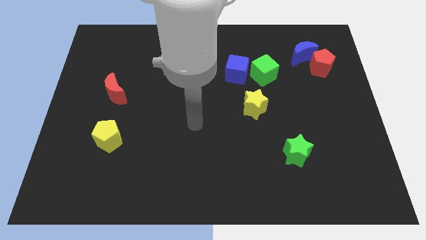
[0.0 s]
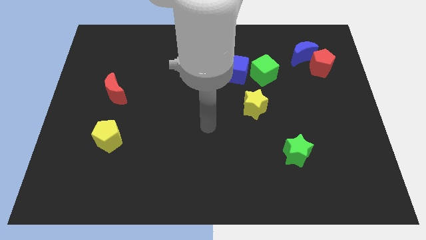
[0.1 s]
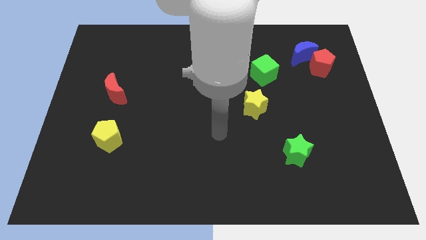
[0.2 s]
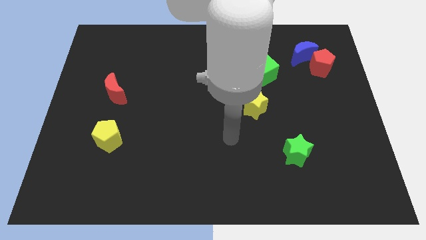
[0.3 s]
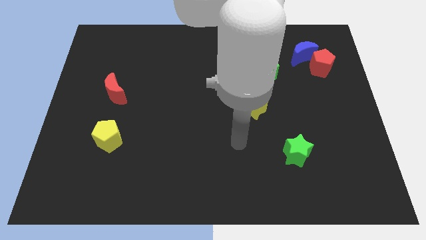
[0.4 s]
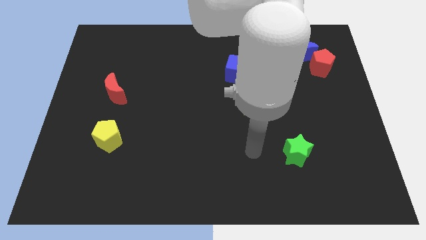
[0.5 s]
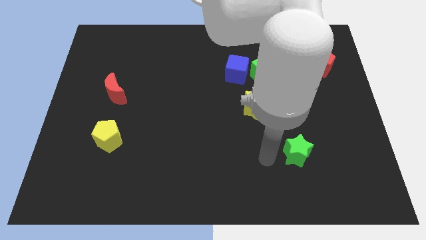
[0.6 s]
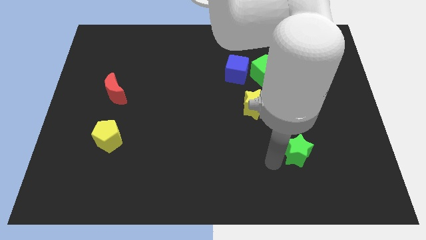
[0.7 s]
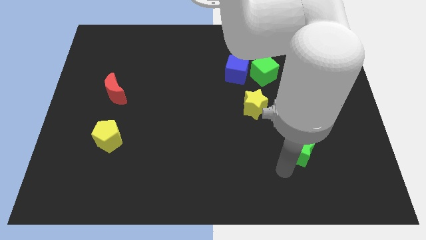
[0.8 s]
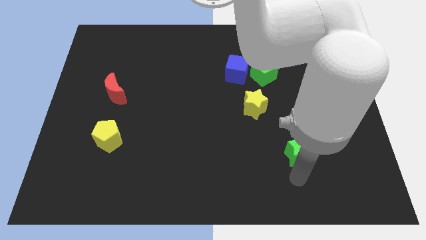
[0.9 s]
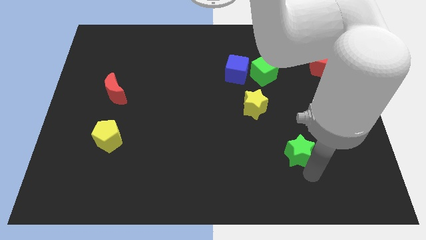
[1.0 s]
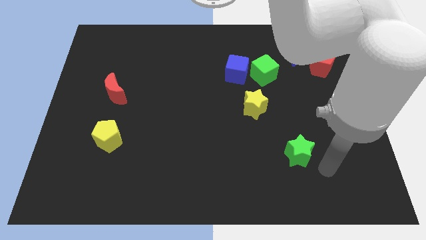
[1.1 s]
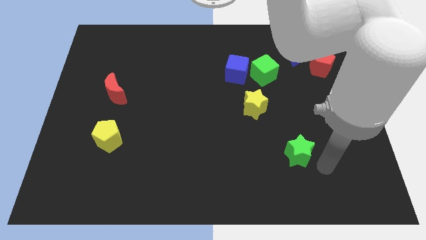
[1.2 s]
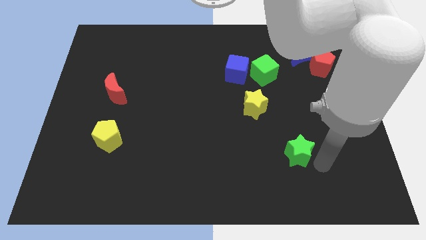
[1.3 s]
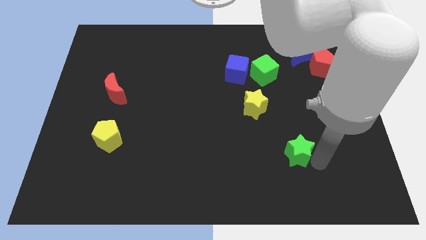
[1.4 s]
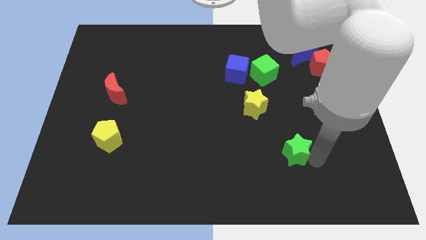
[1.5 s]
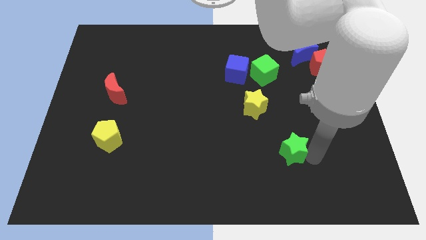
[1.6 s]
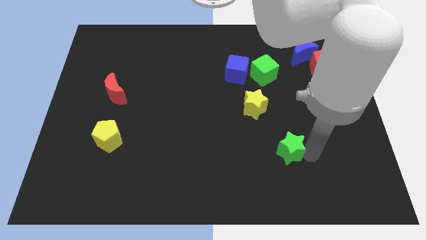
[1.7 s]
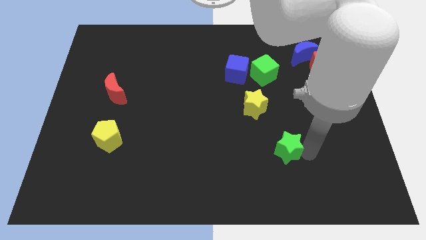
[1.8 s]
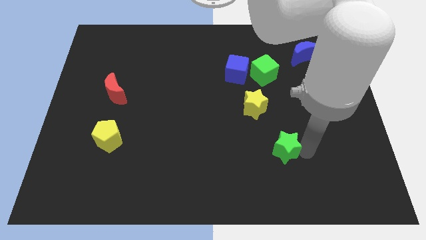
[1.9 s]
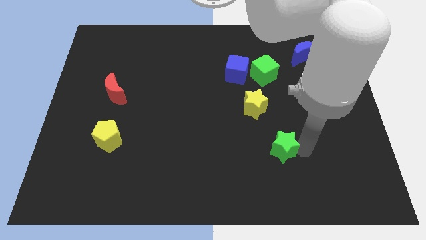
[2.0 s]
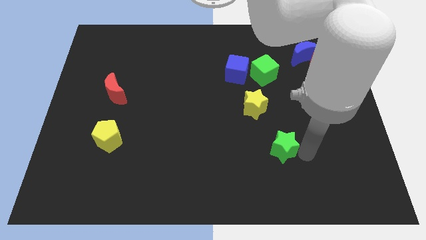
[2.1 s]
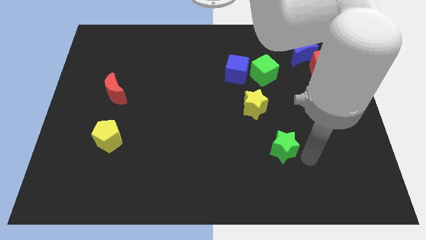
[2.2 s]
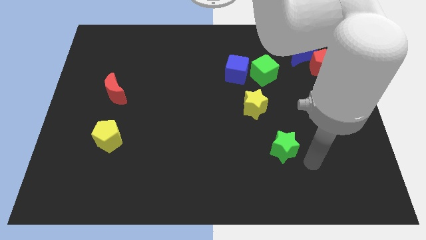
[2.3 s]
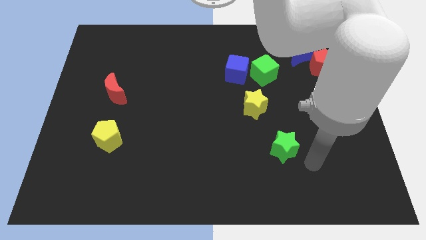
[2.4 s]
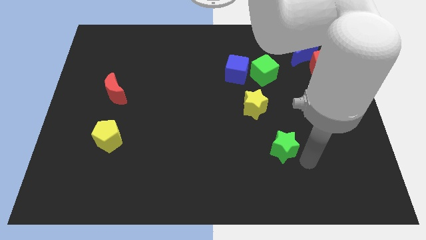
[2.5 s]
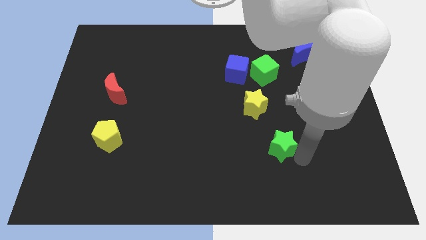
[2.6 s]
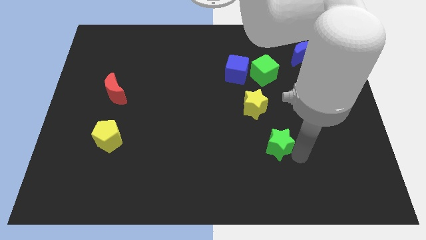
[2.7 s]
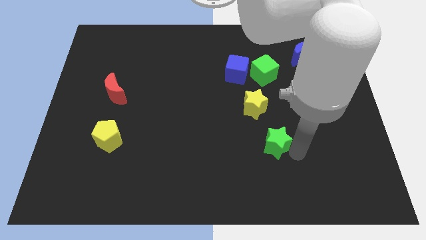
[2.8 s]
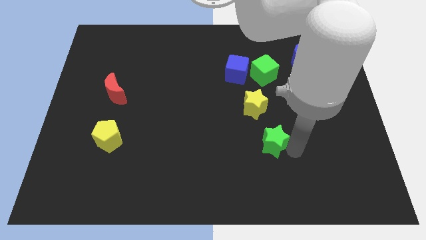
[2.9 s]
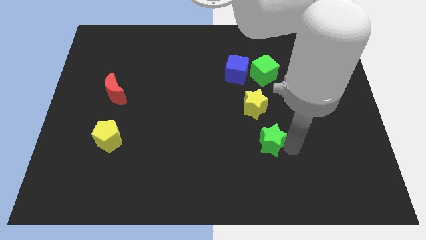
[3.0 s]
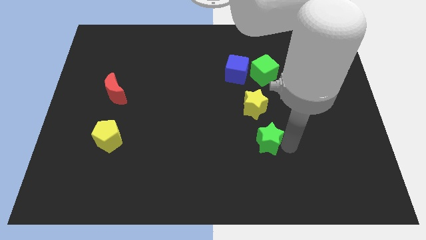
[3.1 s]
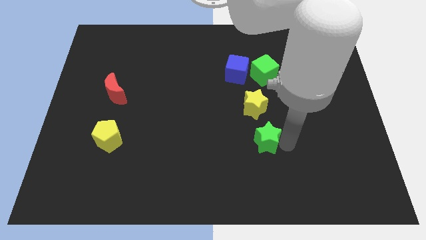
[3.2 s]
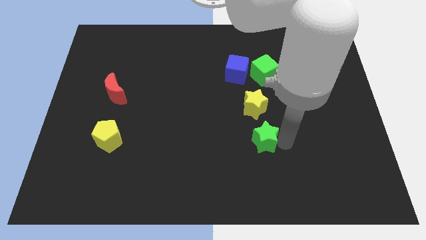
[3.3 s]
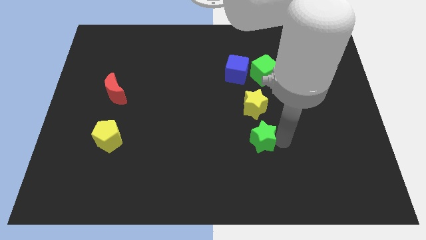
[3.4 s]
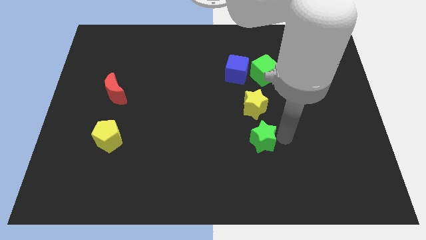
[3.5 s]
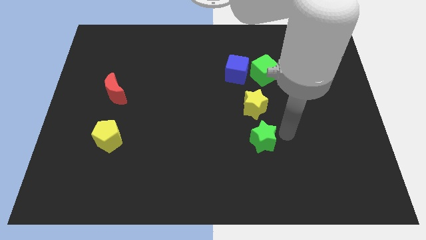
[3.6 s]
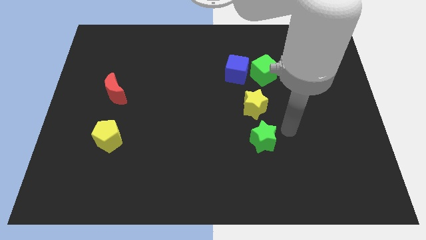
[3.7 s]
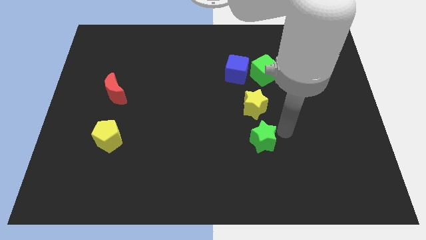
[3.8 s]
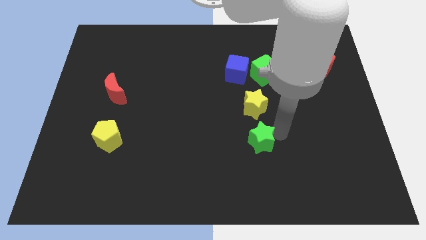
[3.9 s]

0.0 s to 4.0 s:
move the green star left a little

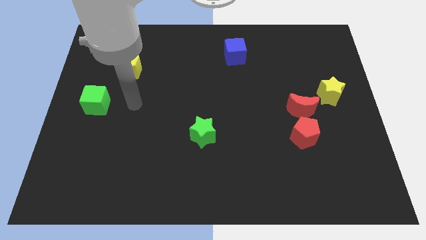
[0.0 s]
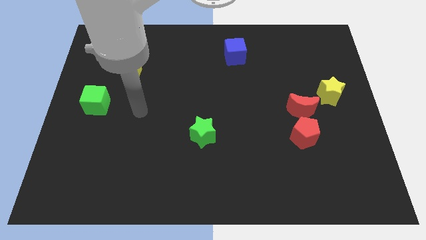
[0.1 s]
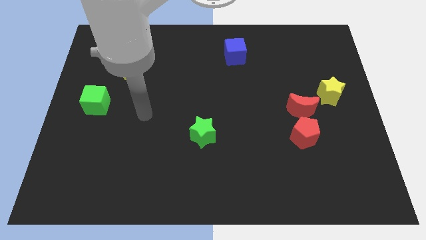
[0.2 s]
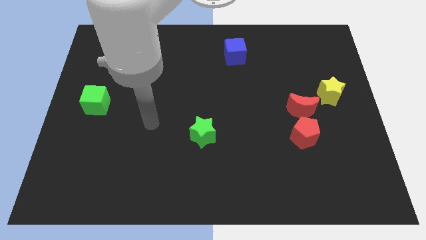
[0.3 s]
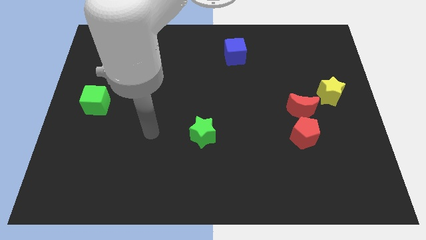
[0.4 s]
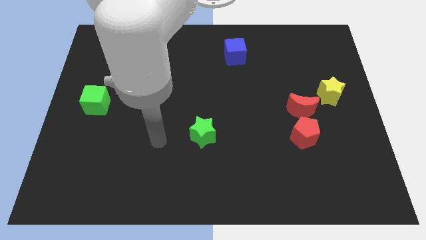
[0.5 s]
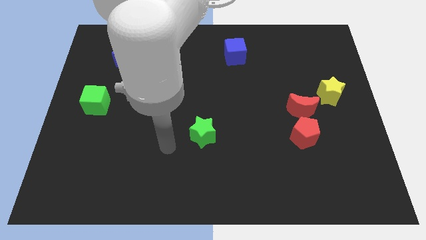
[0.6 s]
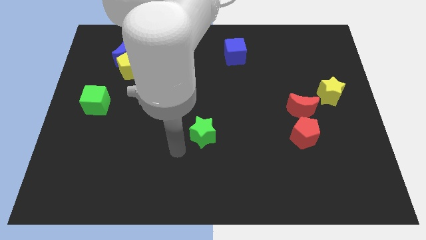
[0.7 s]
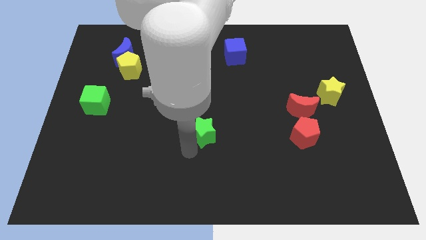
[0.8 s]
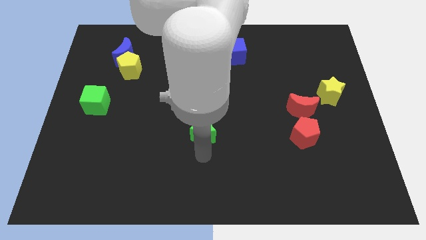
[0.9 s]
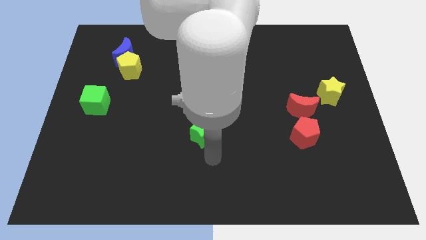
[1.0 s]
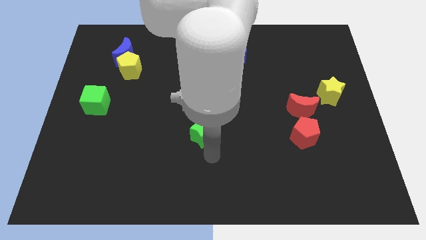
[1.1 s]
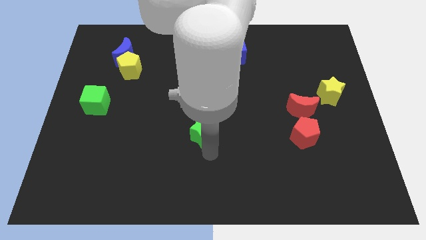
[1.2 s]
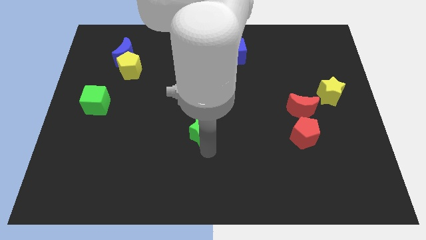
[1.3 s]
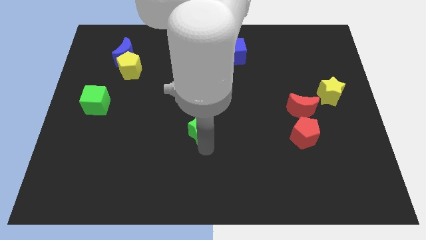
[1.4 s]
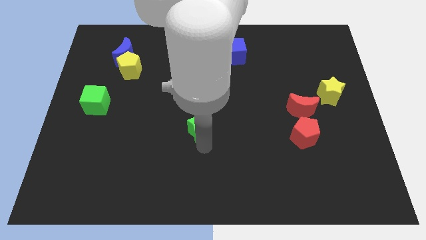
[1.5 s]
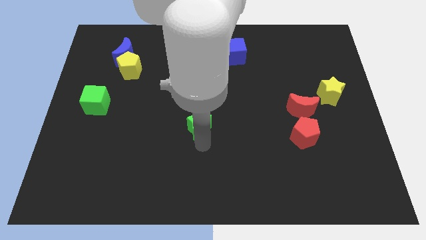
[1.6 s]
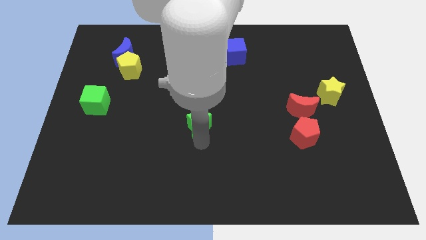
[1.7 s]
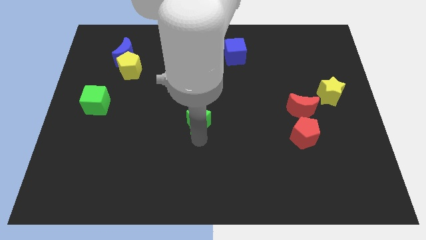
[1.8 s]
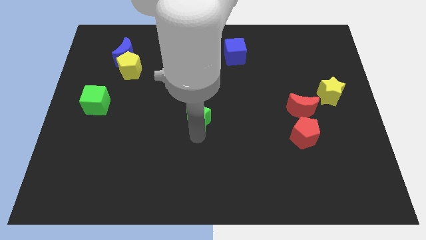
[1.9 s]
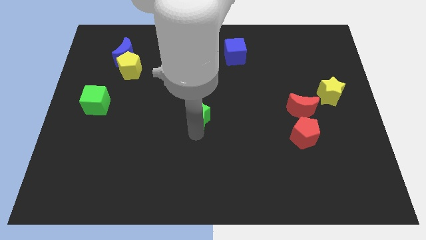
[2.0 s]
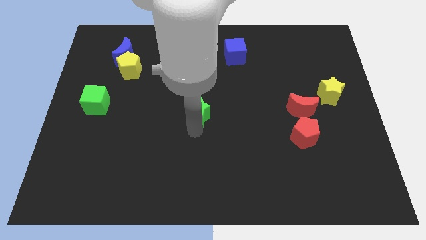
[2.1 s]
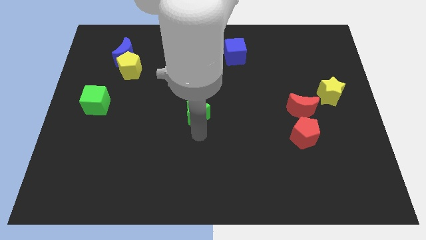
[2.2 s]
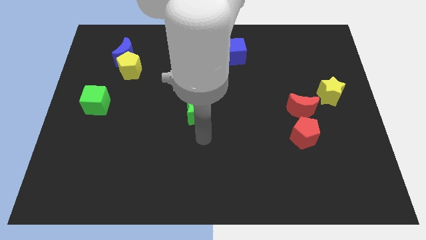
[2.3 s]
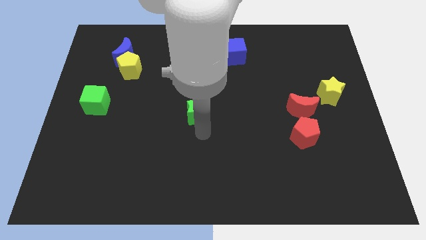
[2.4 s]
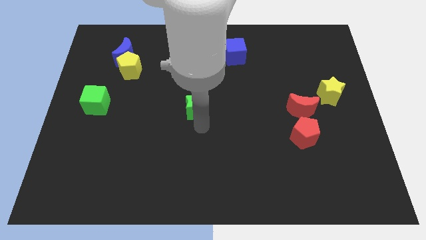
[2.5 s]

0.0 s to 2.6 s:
push the green star upwards a bit

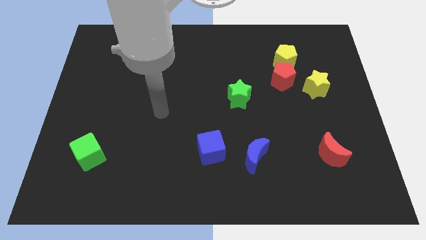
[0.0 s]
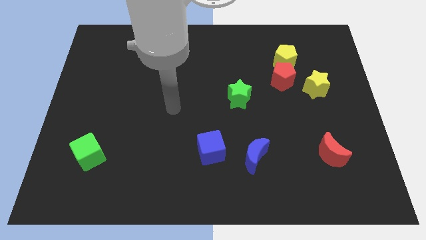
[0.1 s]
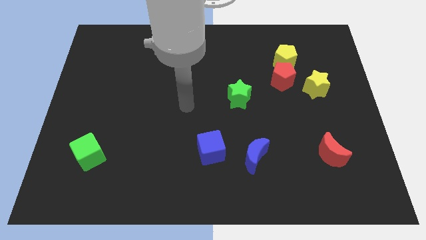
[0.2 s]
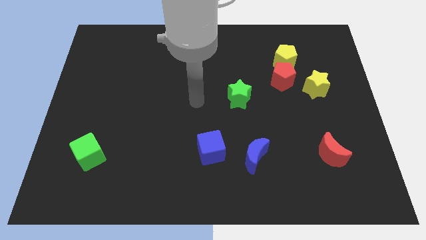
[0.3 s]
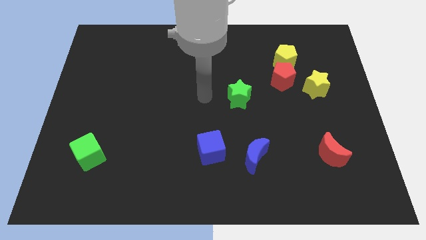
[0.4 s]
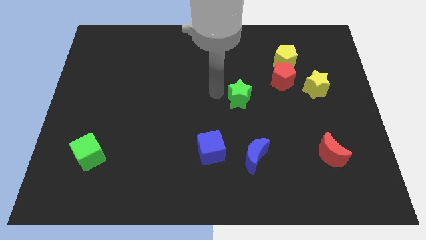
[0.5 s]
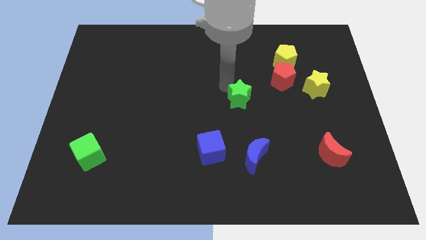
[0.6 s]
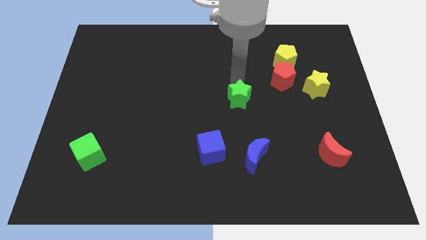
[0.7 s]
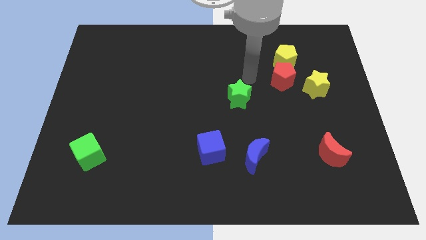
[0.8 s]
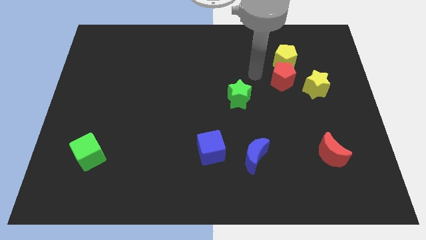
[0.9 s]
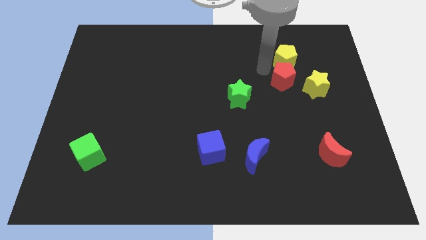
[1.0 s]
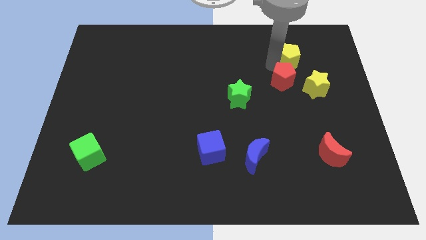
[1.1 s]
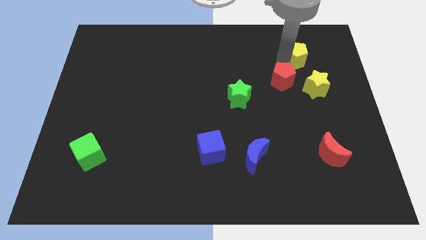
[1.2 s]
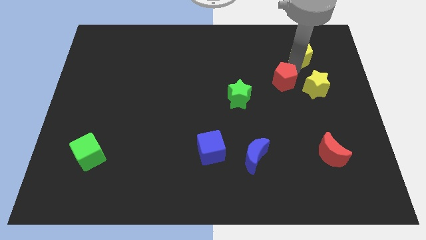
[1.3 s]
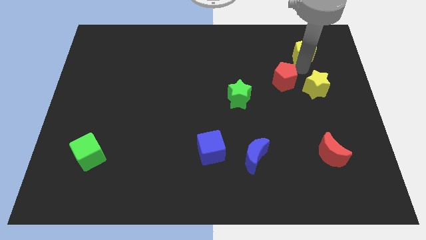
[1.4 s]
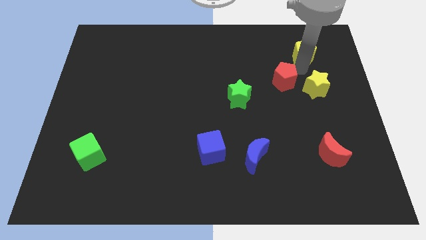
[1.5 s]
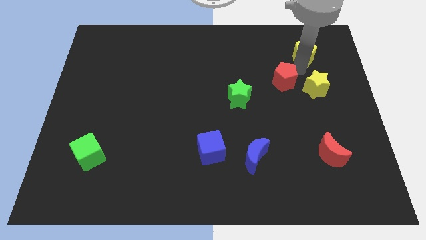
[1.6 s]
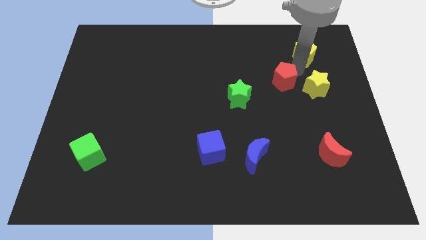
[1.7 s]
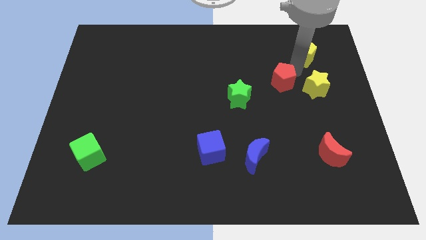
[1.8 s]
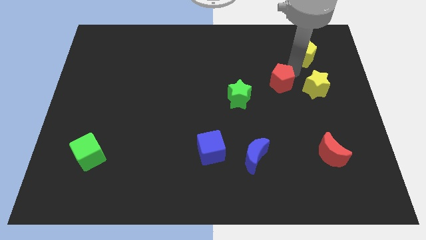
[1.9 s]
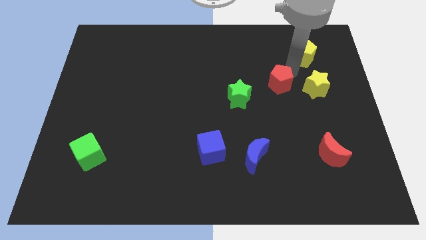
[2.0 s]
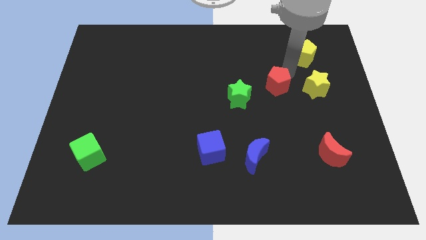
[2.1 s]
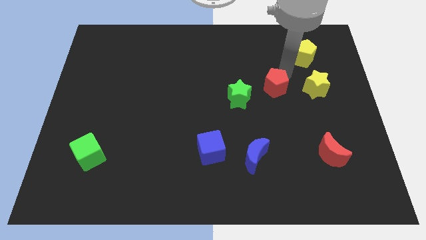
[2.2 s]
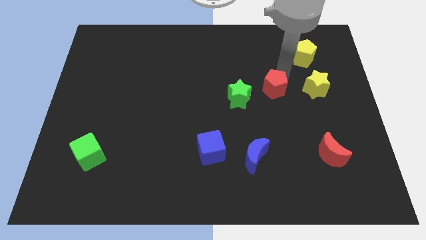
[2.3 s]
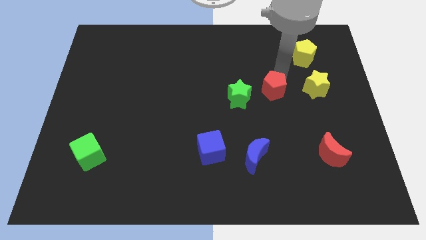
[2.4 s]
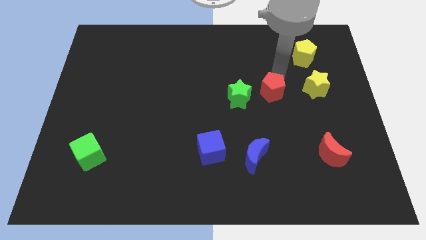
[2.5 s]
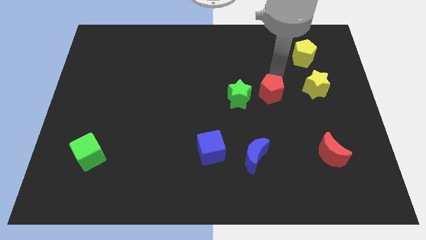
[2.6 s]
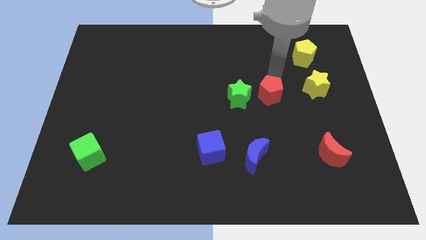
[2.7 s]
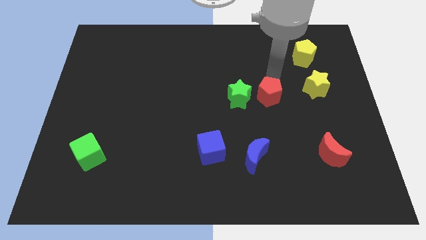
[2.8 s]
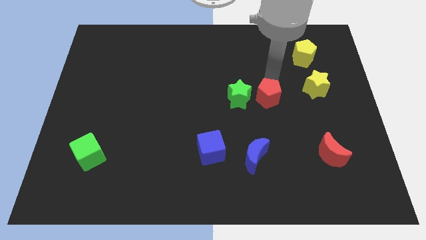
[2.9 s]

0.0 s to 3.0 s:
move the red pentagon downwards and to the left slightly
